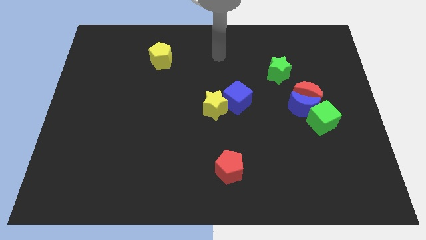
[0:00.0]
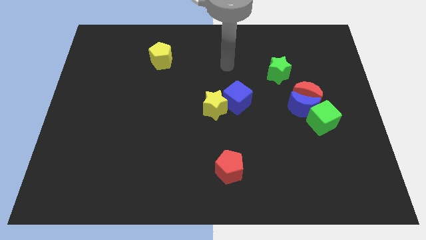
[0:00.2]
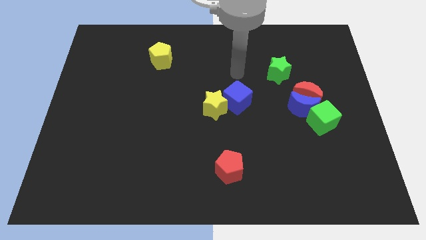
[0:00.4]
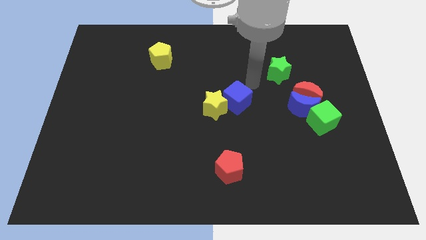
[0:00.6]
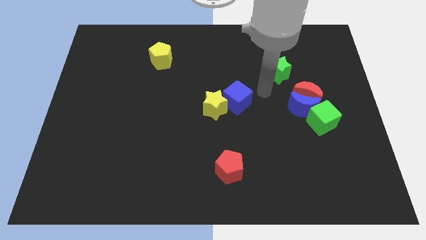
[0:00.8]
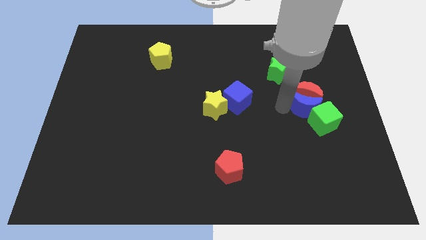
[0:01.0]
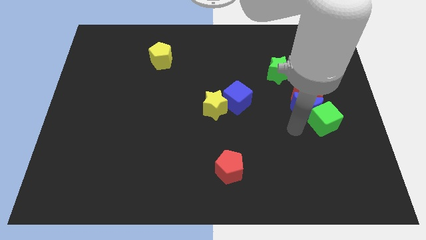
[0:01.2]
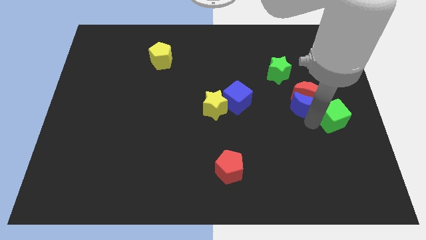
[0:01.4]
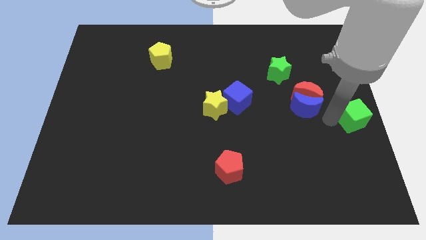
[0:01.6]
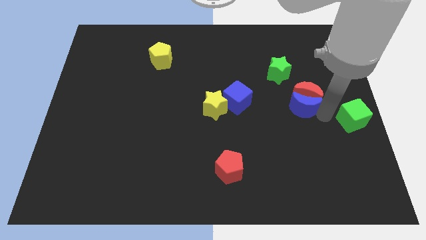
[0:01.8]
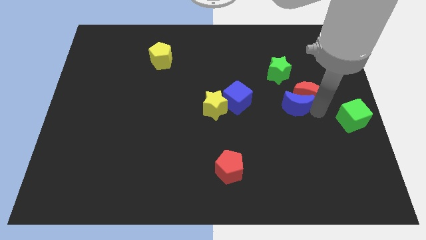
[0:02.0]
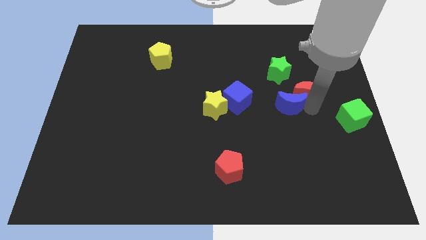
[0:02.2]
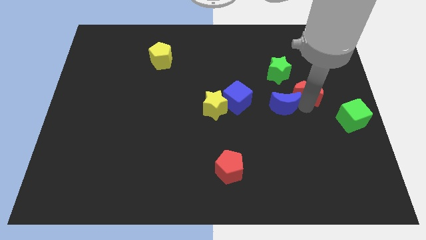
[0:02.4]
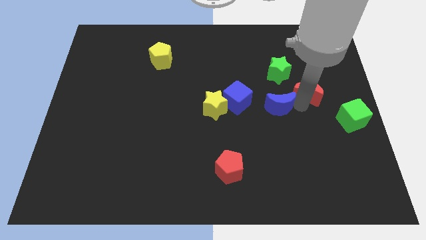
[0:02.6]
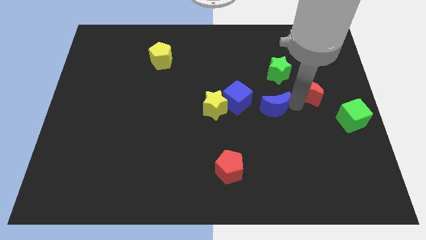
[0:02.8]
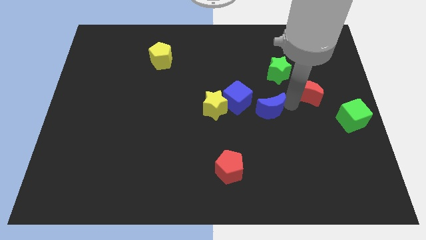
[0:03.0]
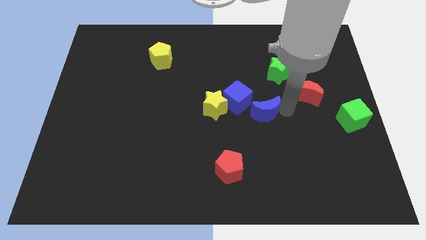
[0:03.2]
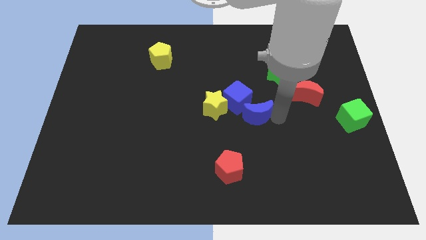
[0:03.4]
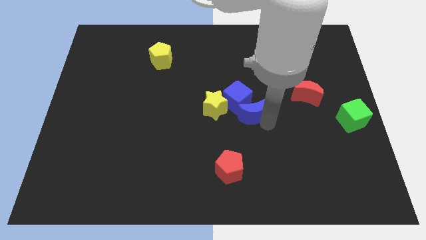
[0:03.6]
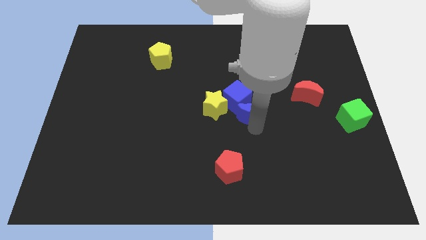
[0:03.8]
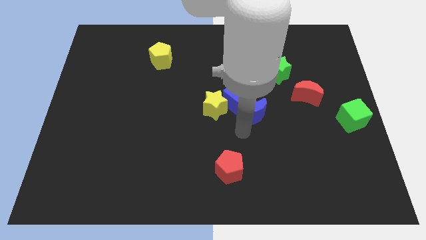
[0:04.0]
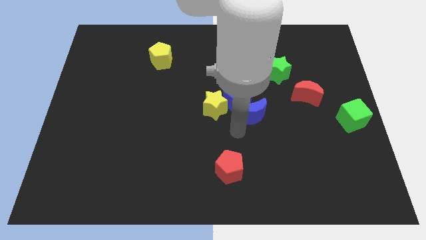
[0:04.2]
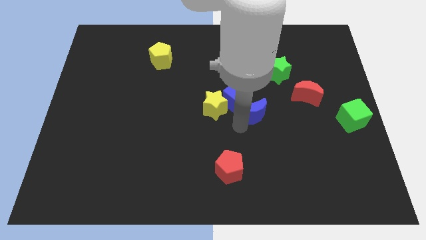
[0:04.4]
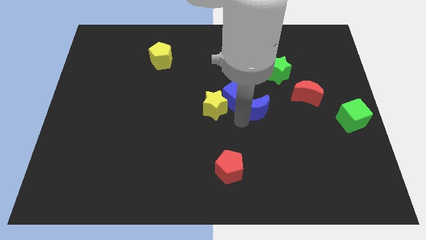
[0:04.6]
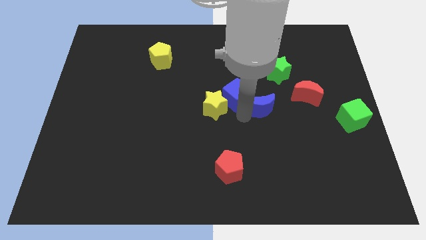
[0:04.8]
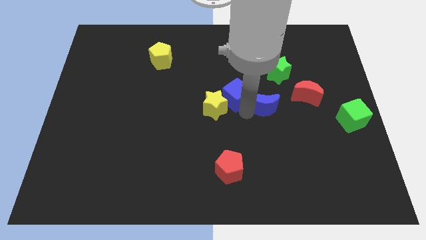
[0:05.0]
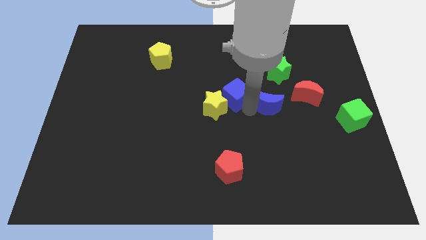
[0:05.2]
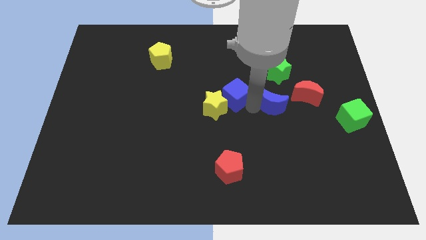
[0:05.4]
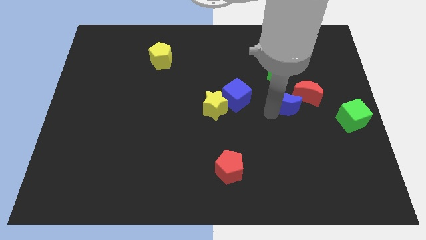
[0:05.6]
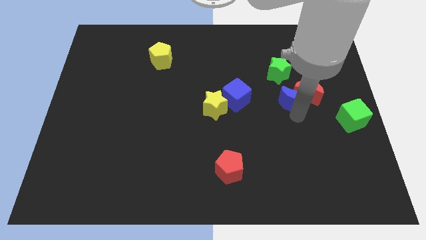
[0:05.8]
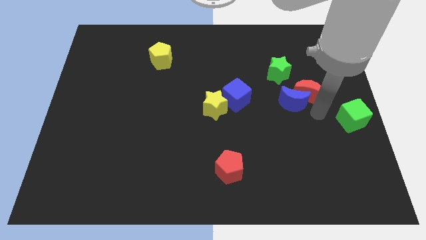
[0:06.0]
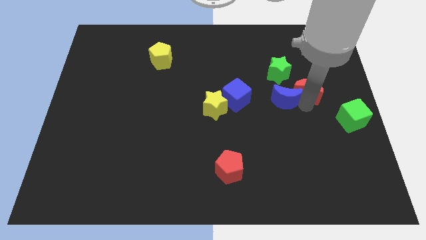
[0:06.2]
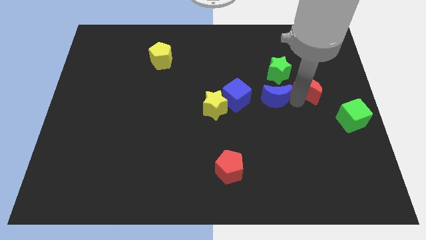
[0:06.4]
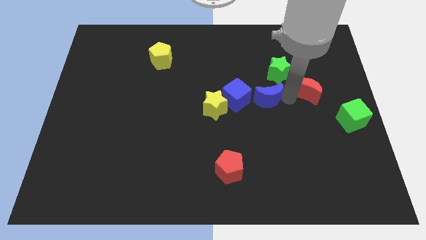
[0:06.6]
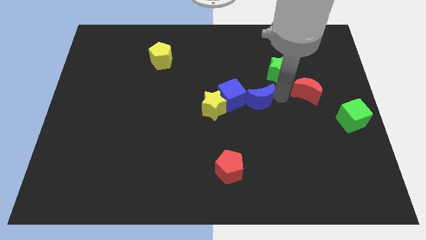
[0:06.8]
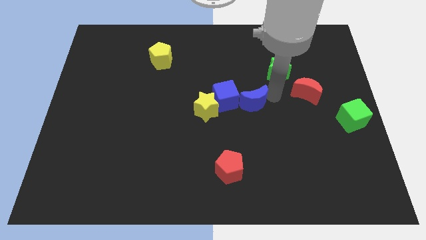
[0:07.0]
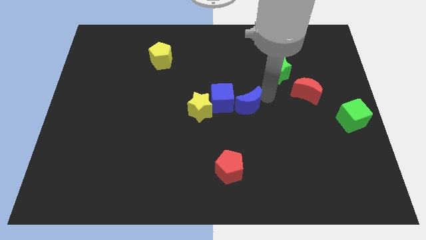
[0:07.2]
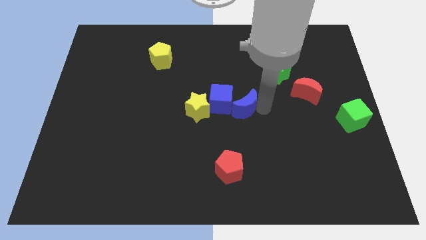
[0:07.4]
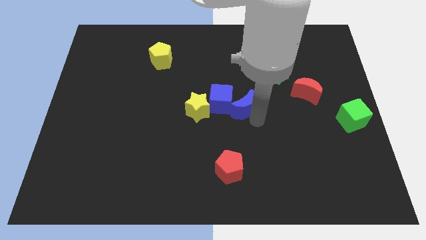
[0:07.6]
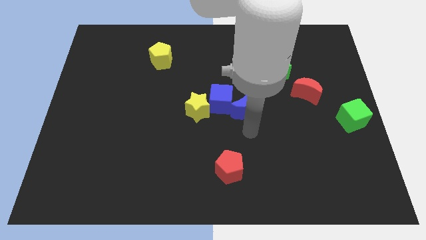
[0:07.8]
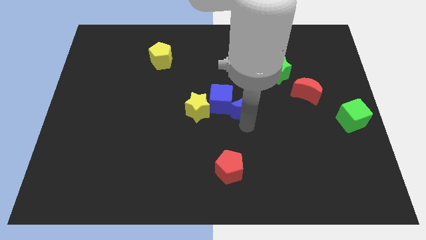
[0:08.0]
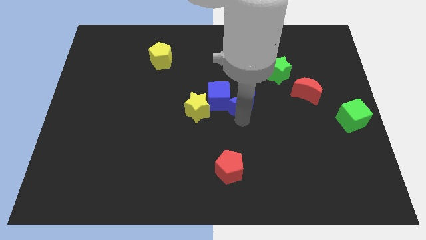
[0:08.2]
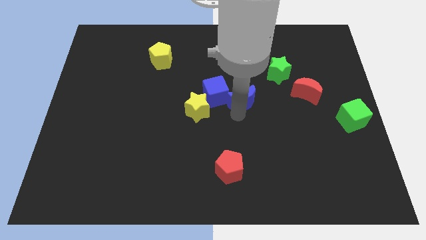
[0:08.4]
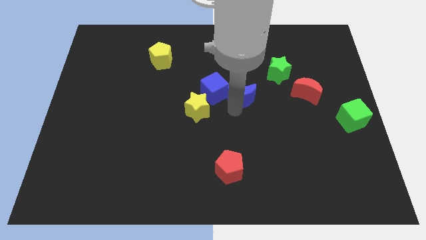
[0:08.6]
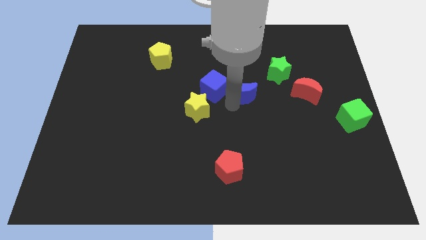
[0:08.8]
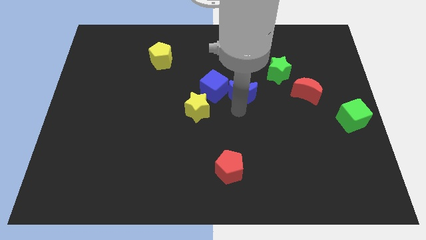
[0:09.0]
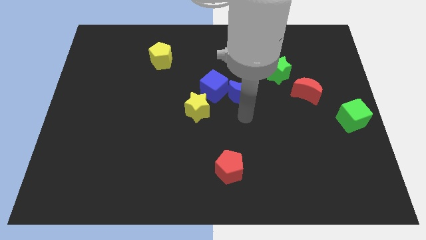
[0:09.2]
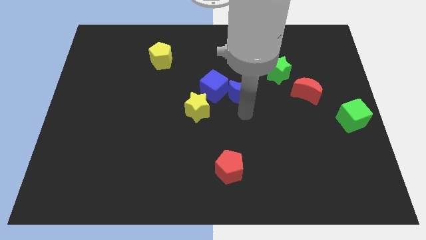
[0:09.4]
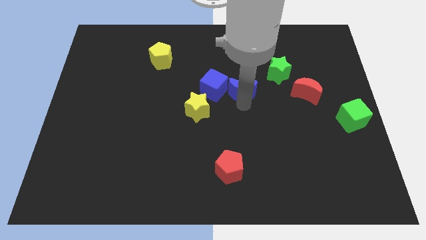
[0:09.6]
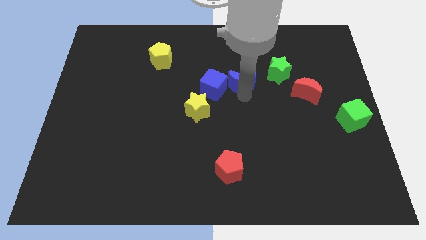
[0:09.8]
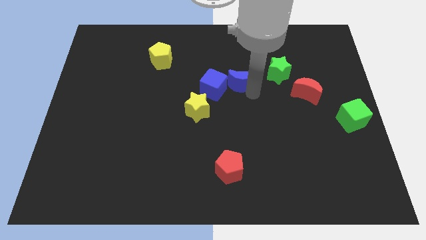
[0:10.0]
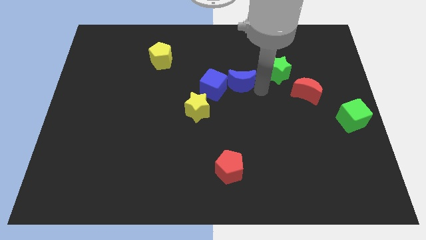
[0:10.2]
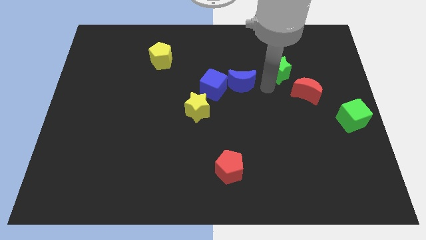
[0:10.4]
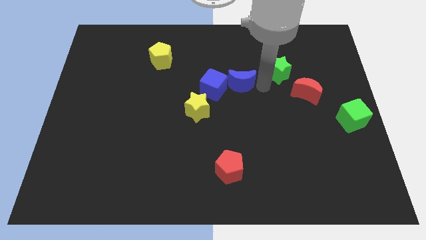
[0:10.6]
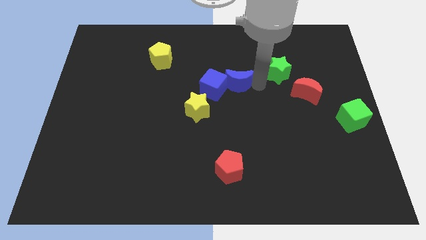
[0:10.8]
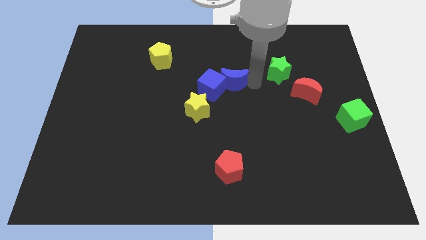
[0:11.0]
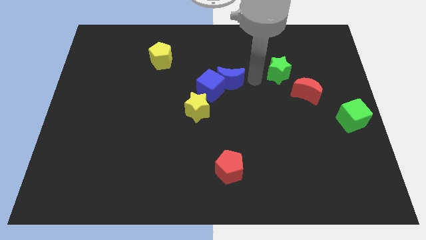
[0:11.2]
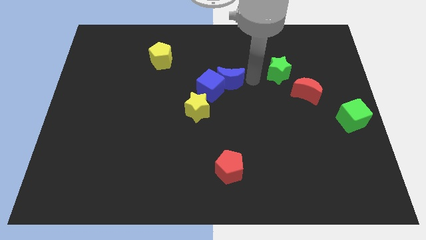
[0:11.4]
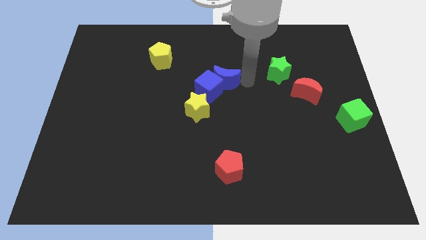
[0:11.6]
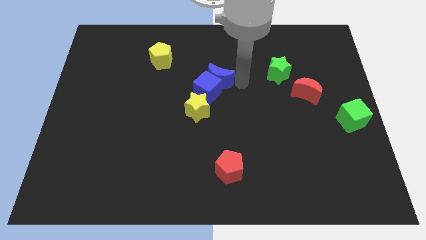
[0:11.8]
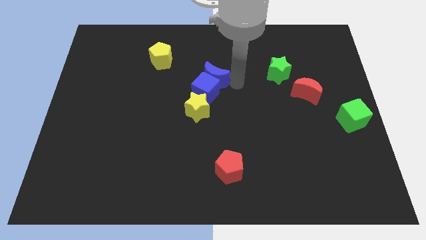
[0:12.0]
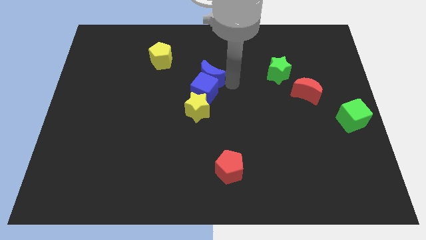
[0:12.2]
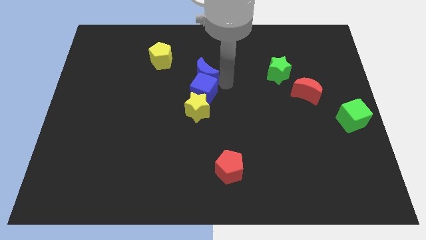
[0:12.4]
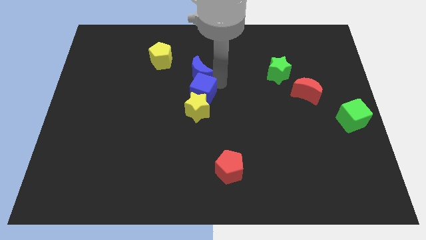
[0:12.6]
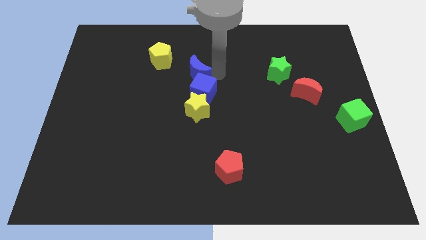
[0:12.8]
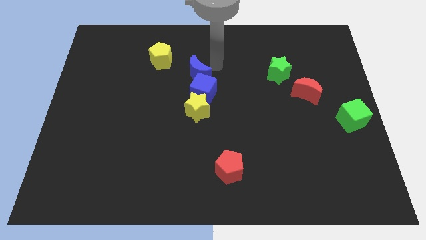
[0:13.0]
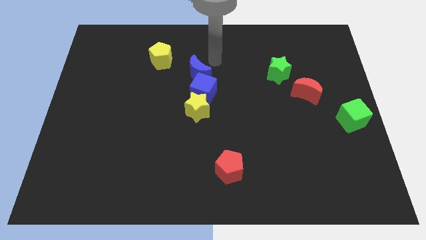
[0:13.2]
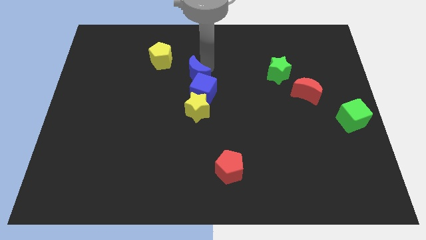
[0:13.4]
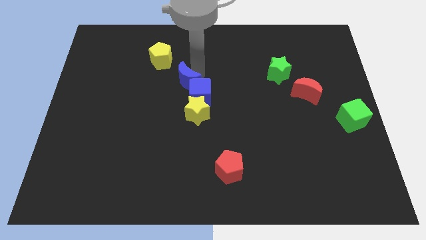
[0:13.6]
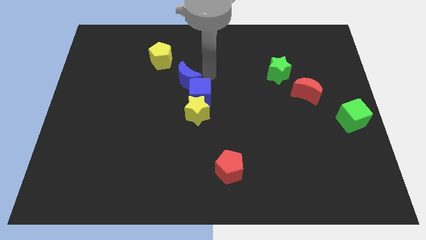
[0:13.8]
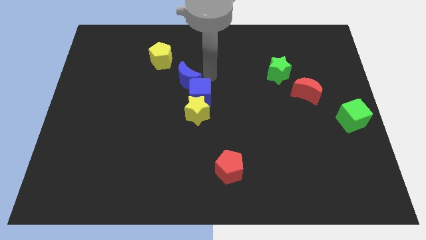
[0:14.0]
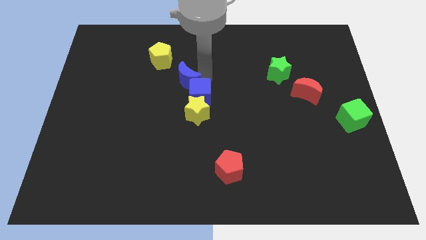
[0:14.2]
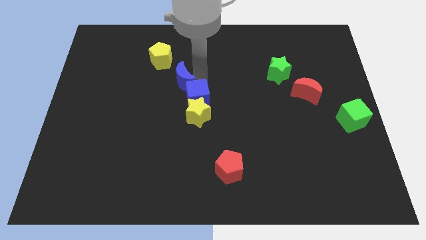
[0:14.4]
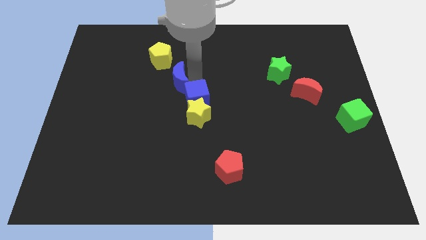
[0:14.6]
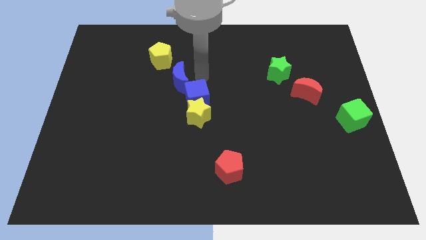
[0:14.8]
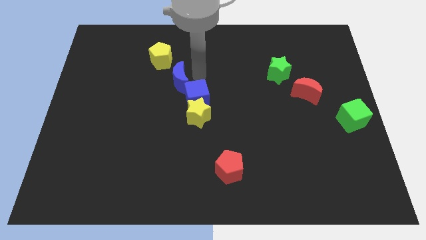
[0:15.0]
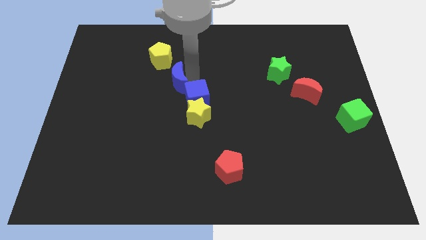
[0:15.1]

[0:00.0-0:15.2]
move the blue moon below the yellow pentagon

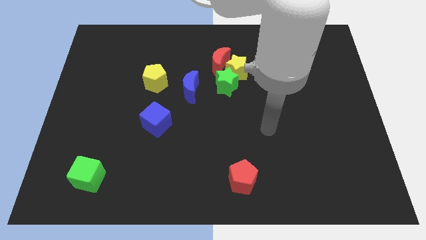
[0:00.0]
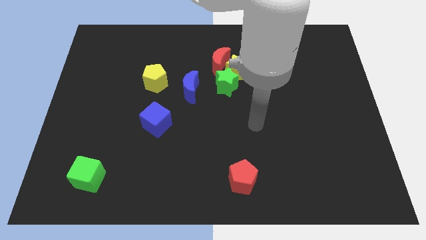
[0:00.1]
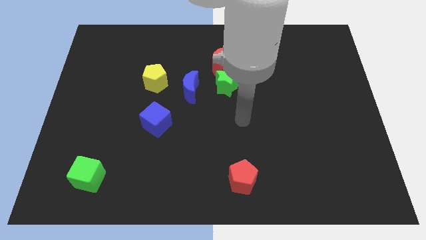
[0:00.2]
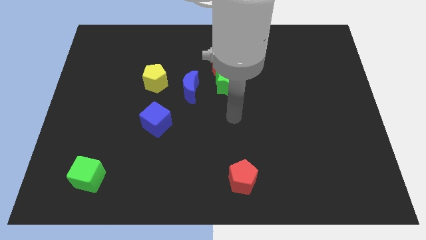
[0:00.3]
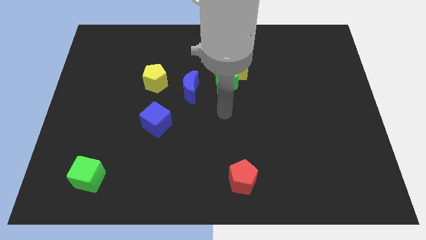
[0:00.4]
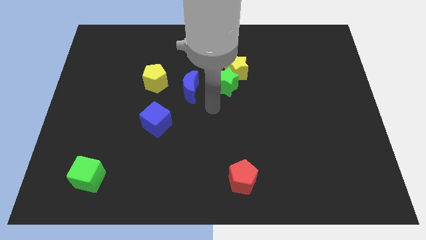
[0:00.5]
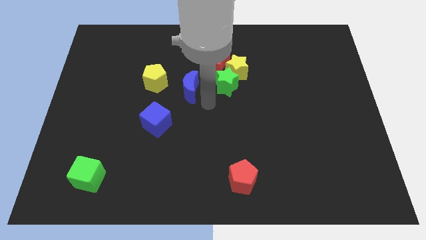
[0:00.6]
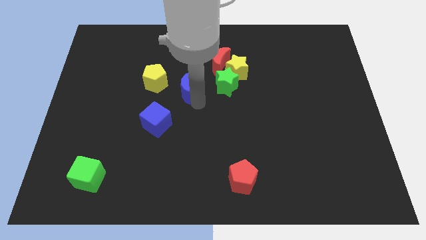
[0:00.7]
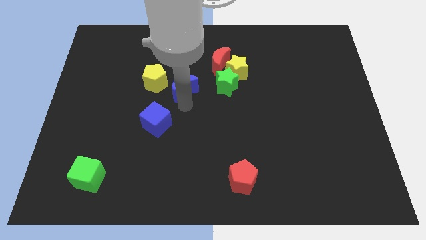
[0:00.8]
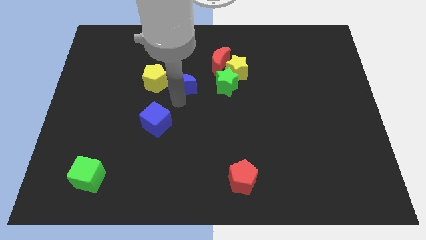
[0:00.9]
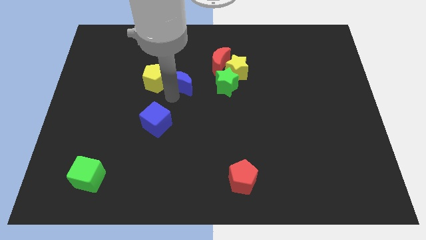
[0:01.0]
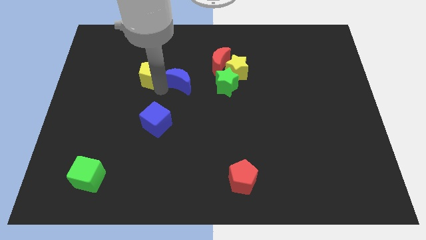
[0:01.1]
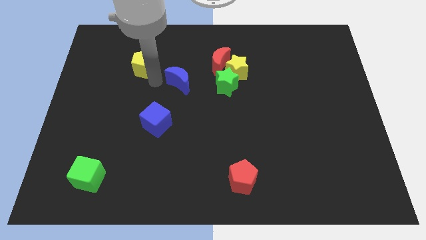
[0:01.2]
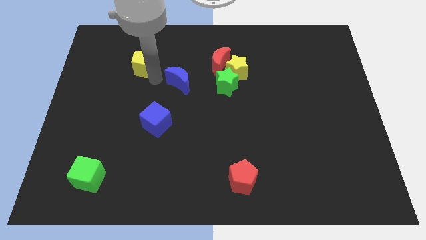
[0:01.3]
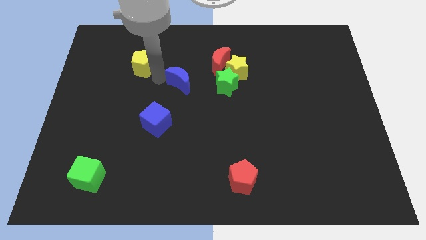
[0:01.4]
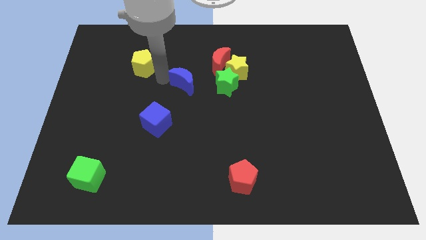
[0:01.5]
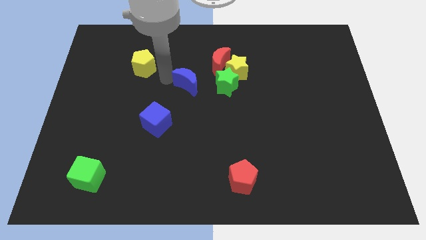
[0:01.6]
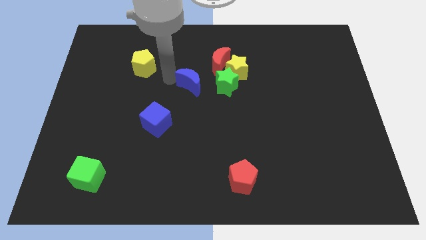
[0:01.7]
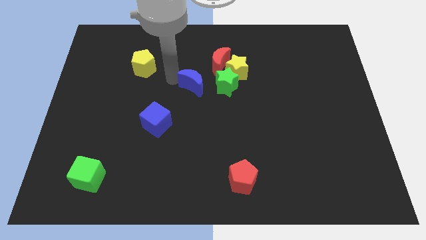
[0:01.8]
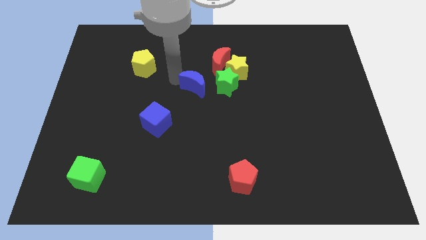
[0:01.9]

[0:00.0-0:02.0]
put the blue moon diagonally down and to the left of the yellow star
